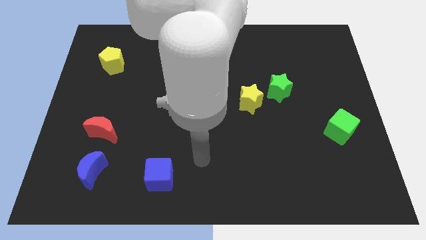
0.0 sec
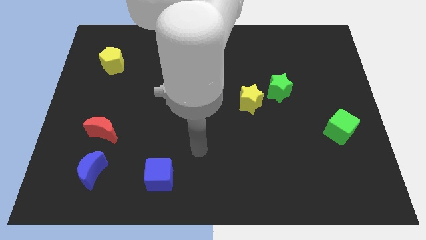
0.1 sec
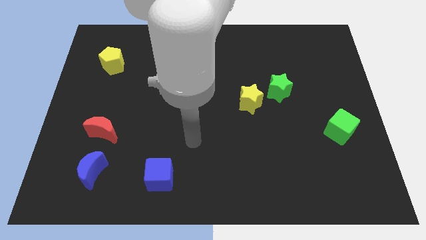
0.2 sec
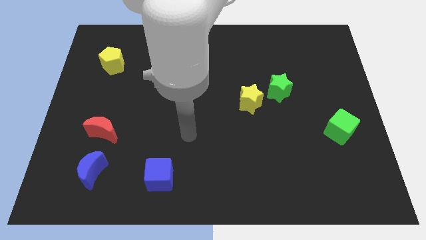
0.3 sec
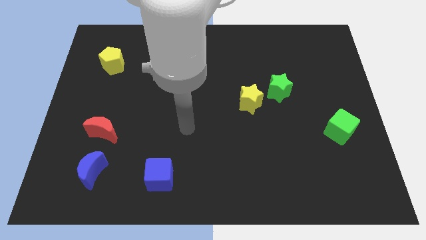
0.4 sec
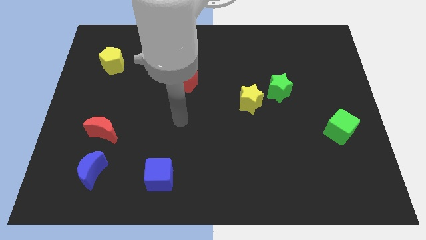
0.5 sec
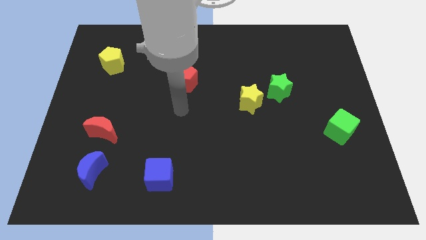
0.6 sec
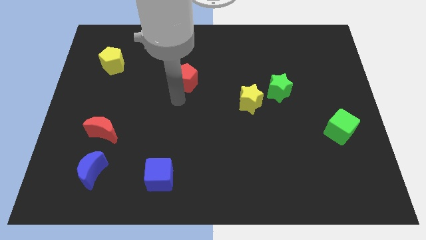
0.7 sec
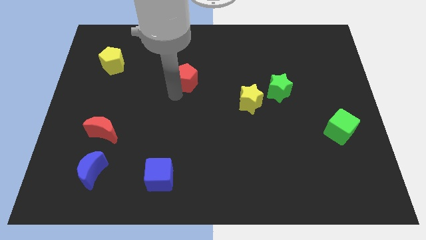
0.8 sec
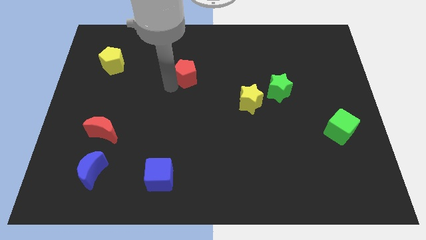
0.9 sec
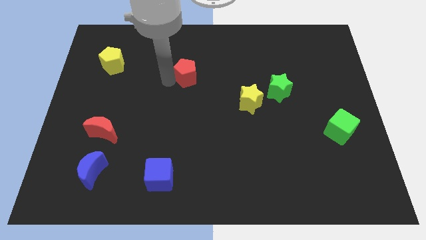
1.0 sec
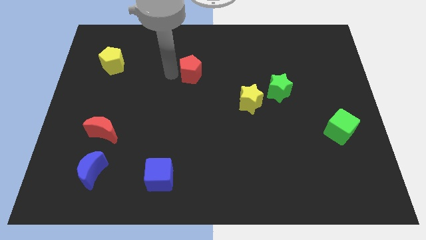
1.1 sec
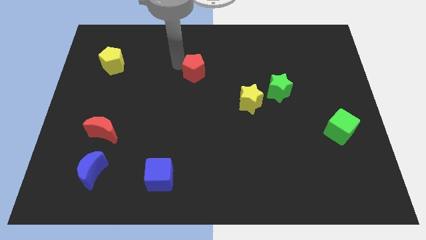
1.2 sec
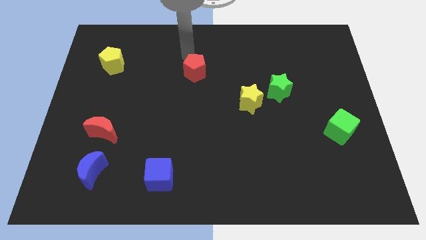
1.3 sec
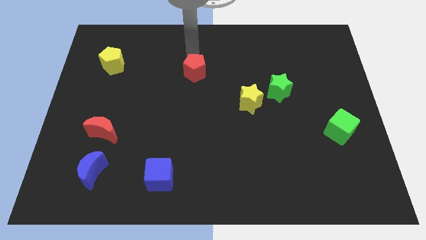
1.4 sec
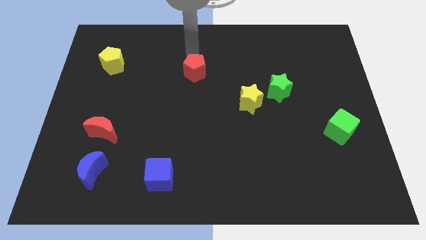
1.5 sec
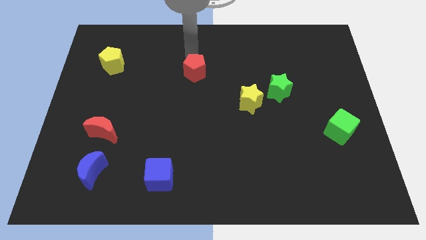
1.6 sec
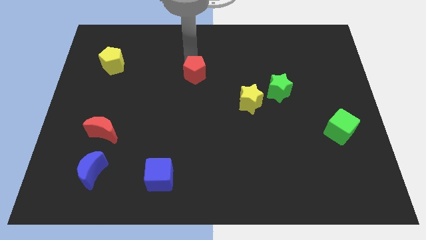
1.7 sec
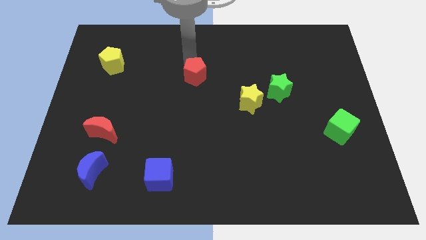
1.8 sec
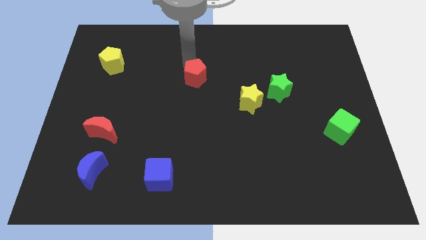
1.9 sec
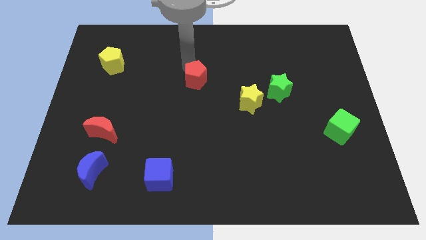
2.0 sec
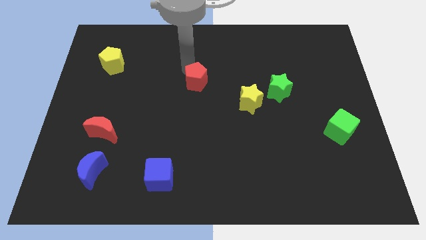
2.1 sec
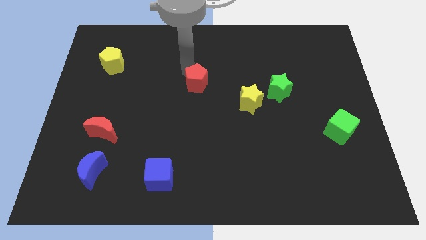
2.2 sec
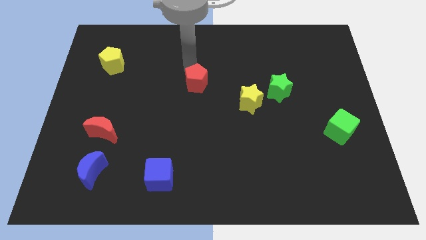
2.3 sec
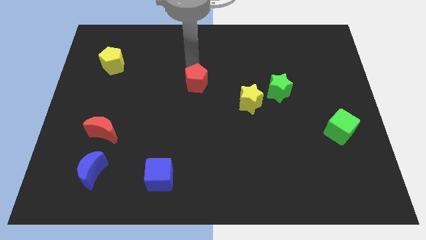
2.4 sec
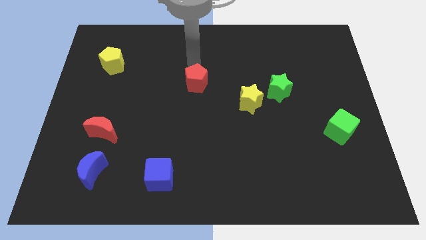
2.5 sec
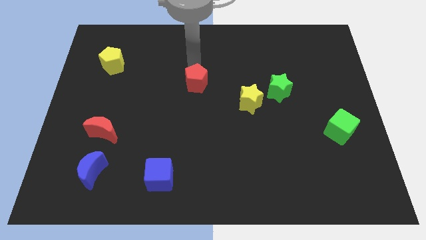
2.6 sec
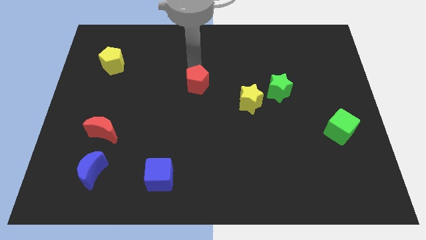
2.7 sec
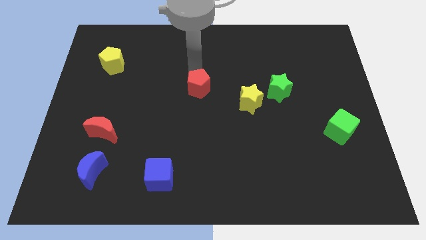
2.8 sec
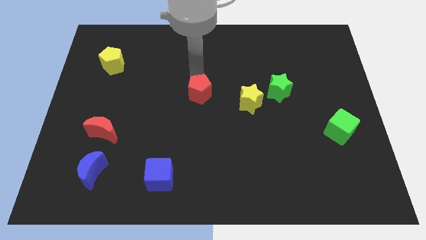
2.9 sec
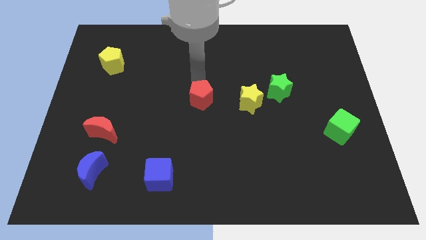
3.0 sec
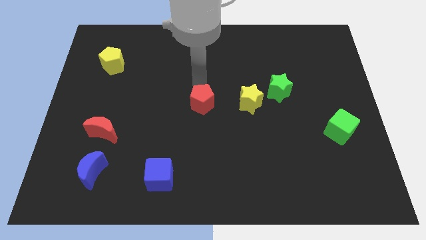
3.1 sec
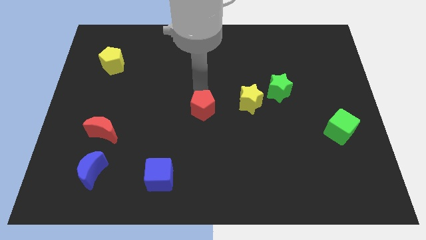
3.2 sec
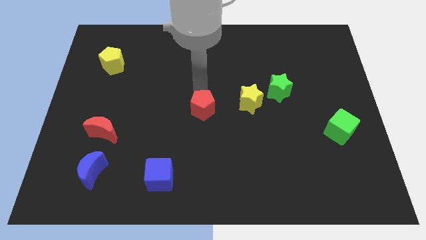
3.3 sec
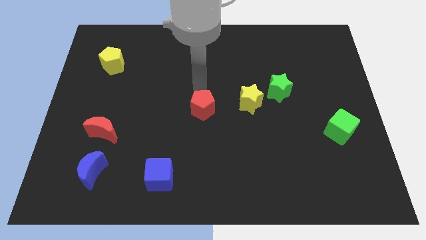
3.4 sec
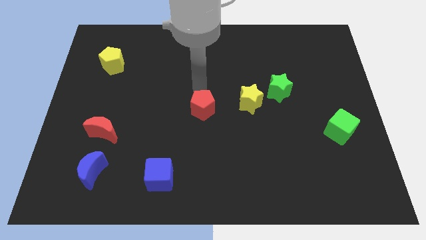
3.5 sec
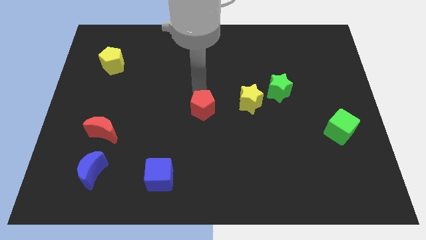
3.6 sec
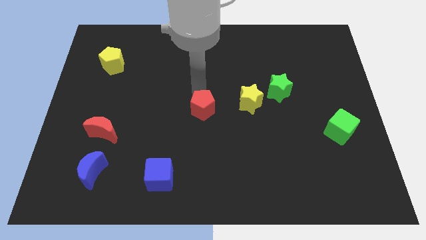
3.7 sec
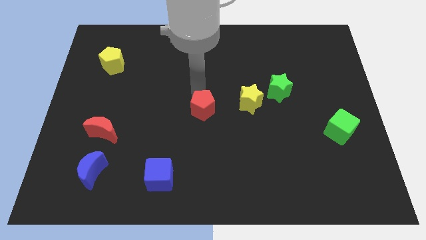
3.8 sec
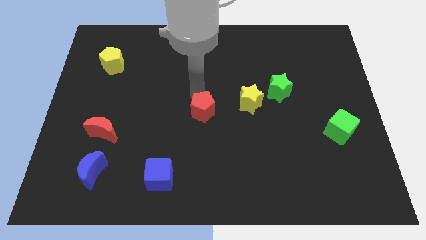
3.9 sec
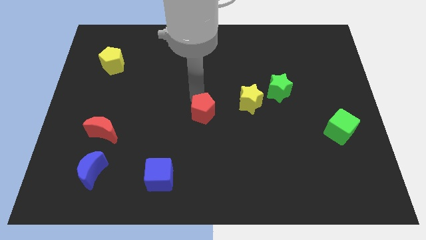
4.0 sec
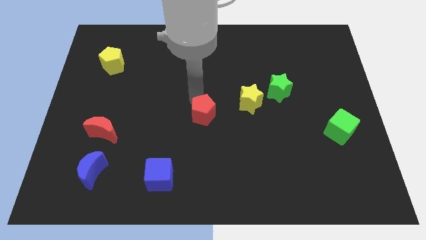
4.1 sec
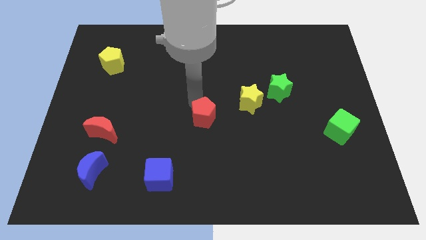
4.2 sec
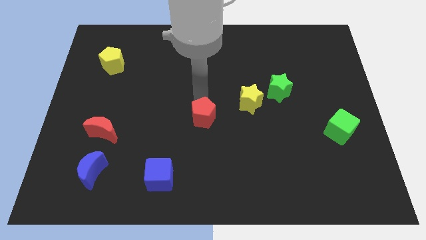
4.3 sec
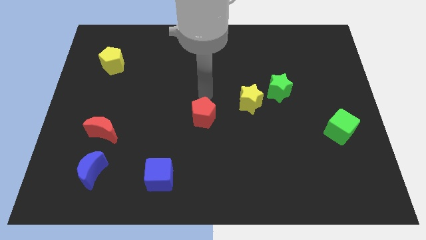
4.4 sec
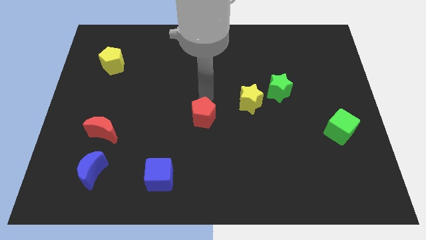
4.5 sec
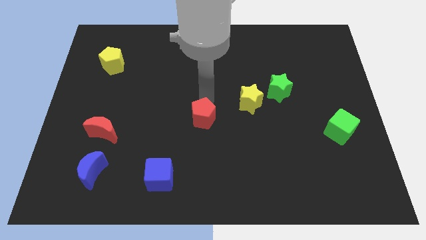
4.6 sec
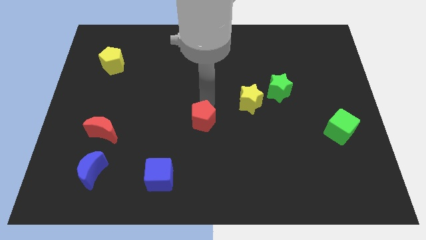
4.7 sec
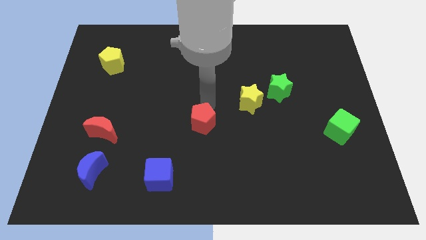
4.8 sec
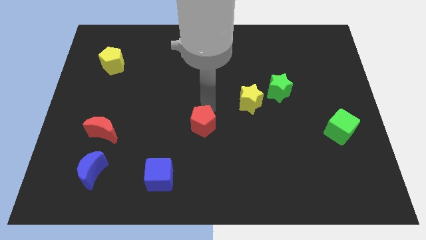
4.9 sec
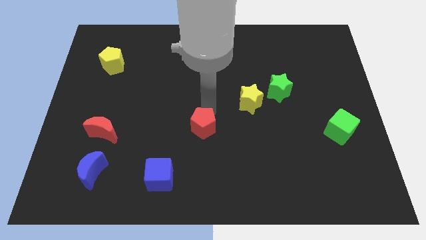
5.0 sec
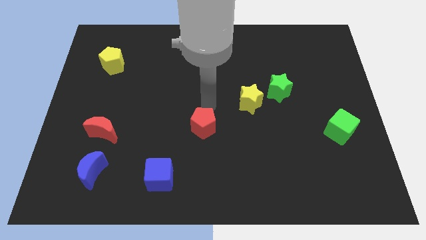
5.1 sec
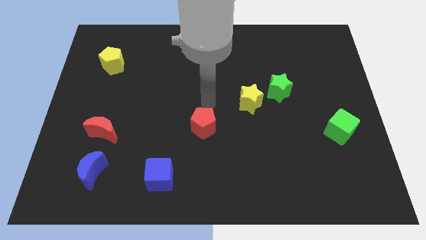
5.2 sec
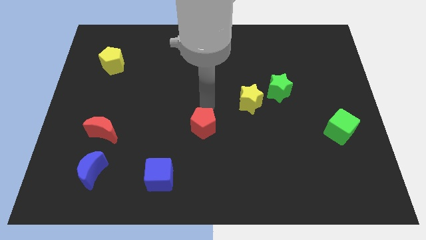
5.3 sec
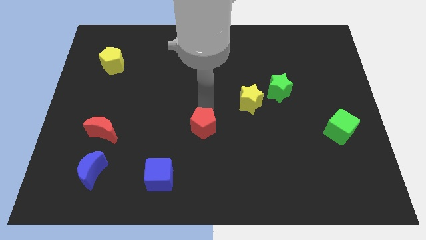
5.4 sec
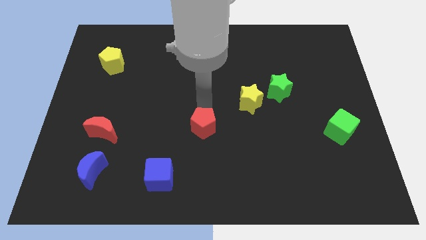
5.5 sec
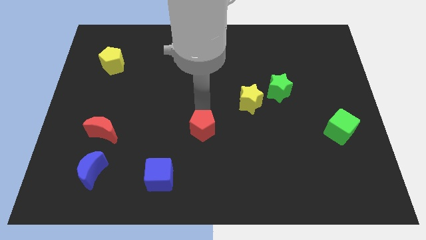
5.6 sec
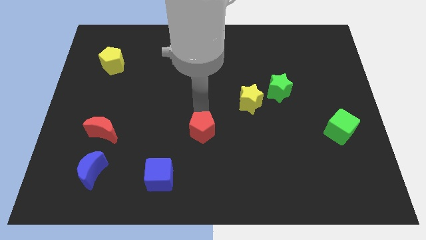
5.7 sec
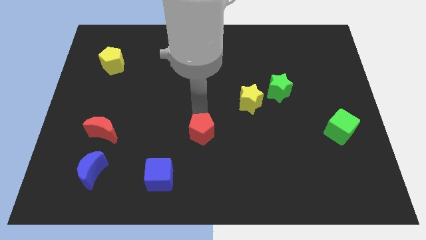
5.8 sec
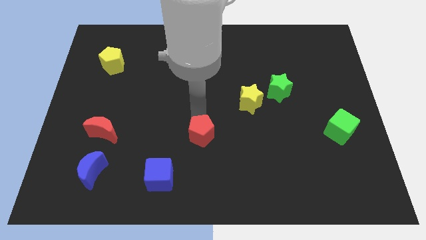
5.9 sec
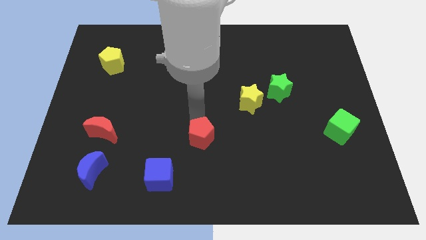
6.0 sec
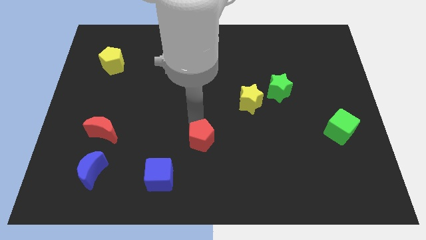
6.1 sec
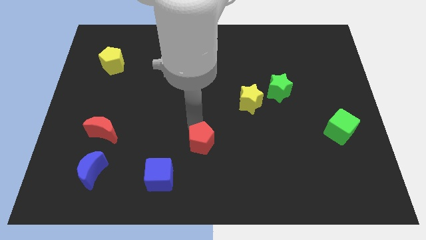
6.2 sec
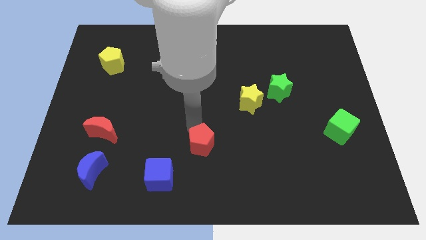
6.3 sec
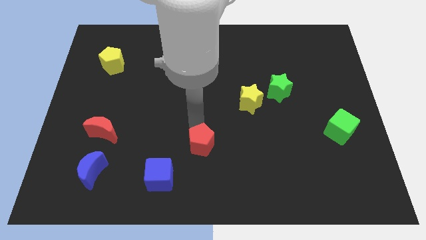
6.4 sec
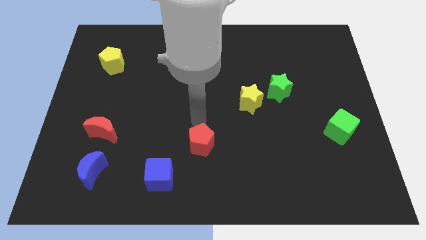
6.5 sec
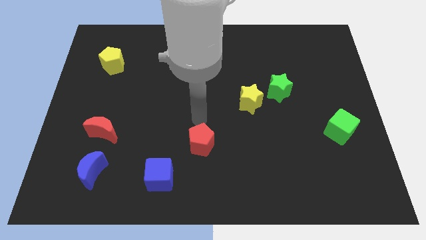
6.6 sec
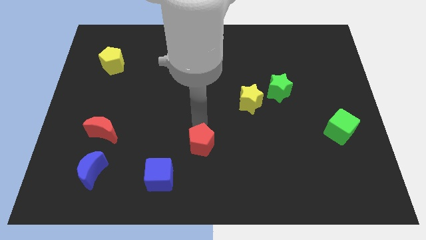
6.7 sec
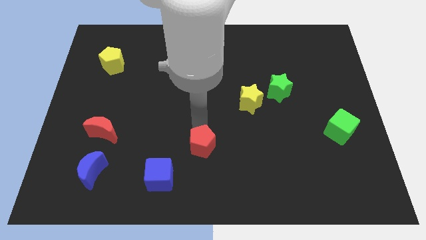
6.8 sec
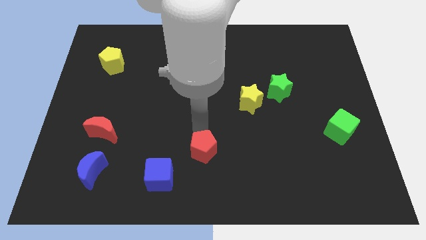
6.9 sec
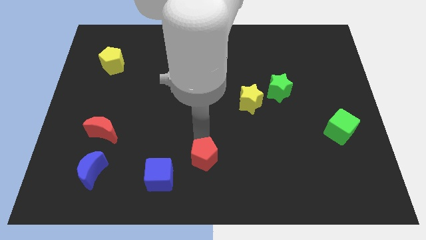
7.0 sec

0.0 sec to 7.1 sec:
move the red pentagon to the bottom side
